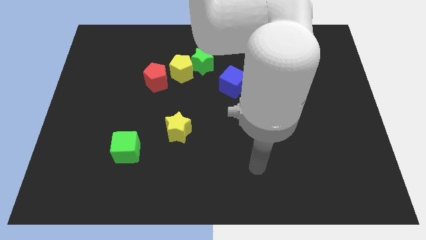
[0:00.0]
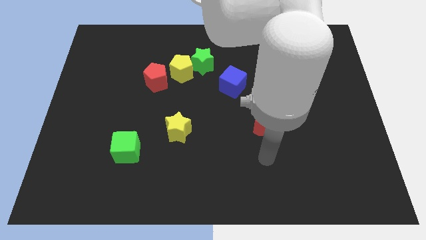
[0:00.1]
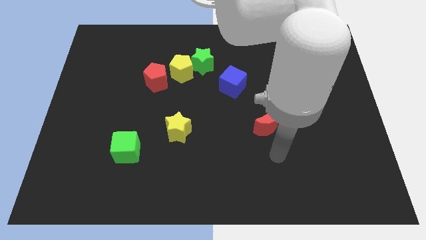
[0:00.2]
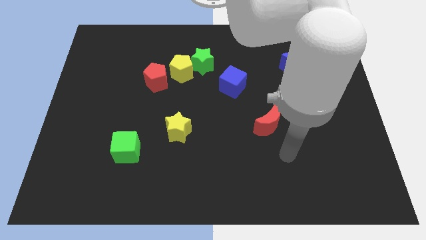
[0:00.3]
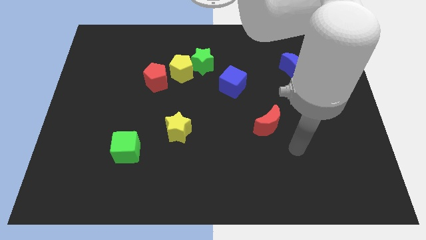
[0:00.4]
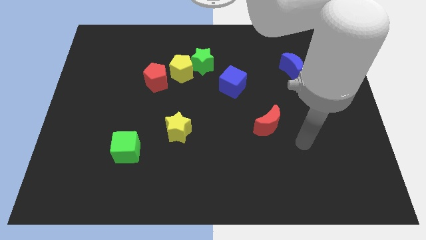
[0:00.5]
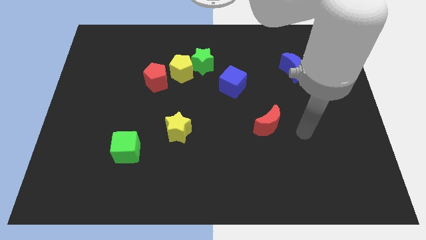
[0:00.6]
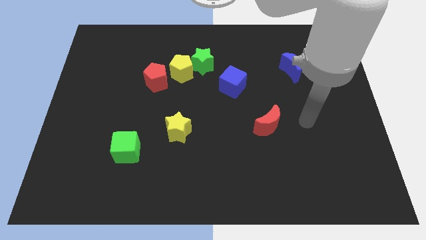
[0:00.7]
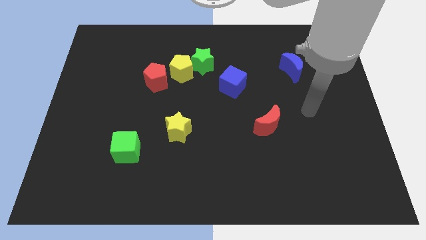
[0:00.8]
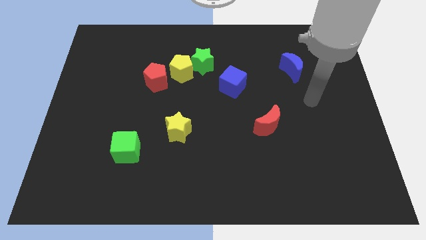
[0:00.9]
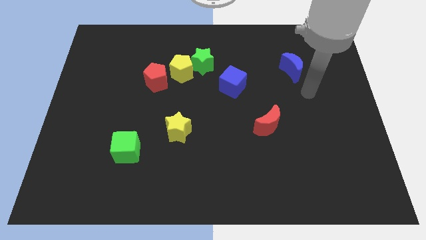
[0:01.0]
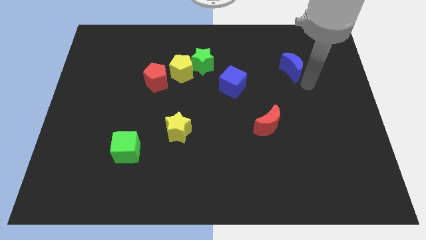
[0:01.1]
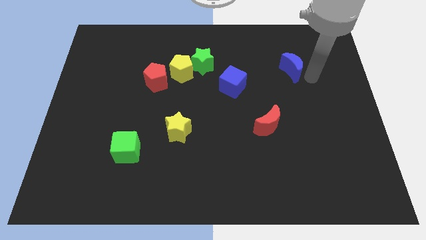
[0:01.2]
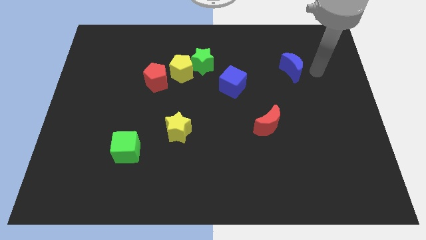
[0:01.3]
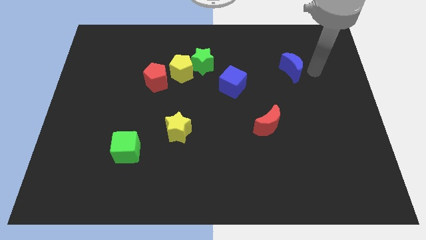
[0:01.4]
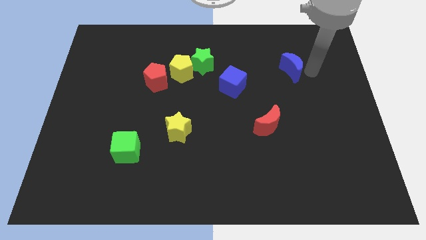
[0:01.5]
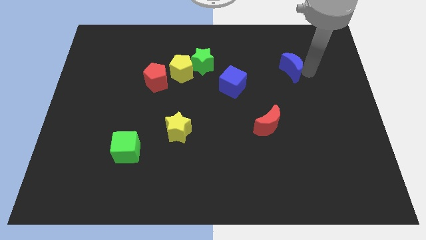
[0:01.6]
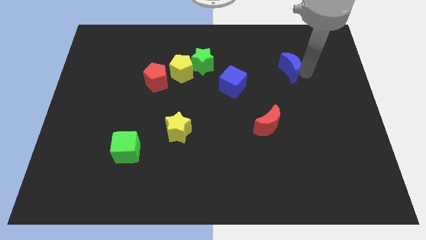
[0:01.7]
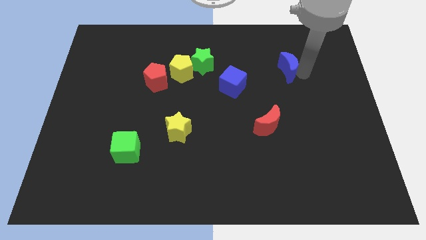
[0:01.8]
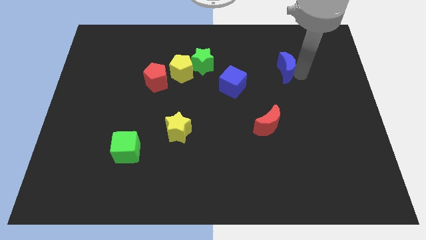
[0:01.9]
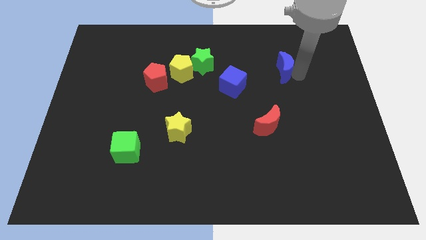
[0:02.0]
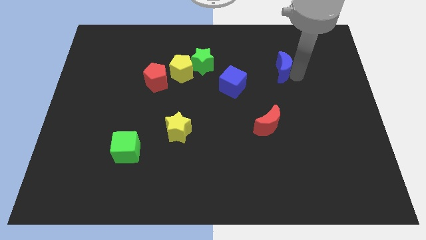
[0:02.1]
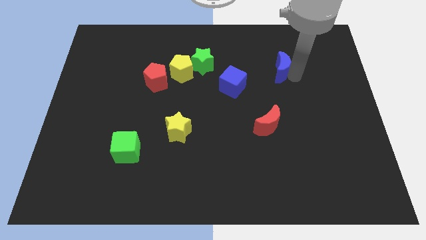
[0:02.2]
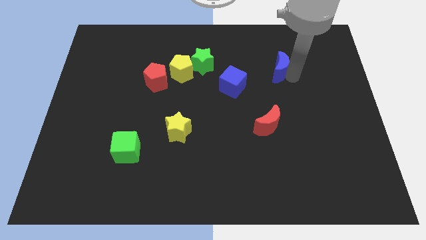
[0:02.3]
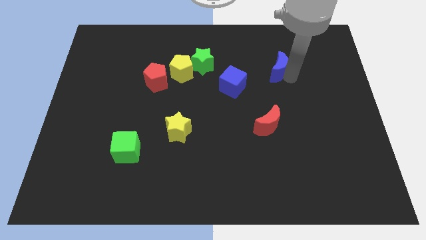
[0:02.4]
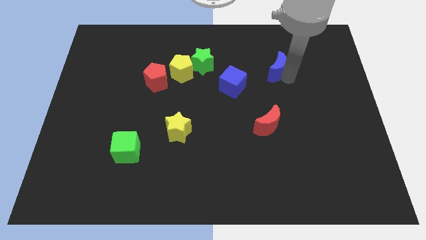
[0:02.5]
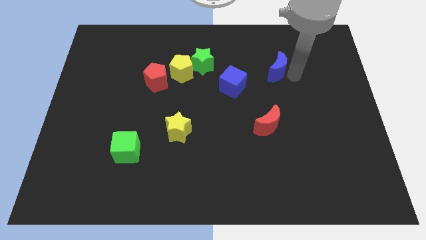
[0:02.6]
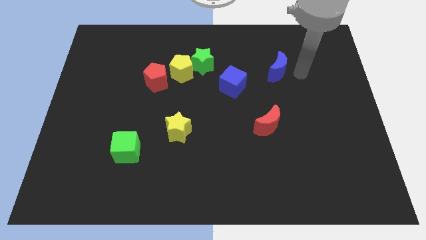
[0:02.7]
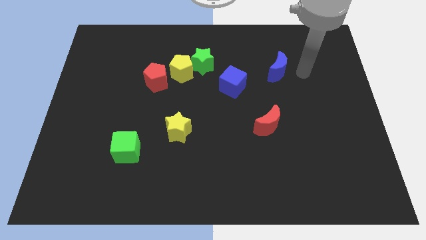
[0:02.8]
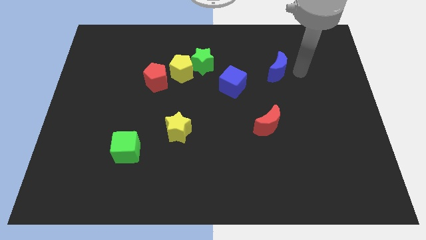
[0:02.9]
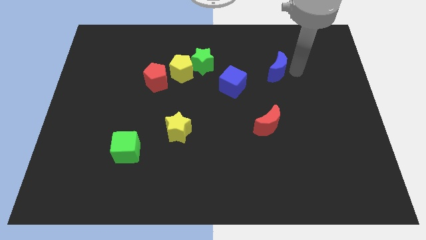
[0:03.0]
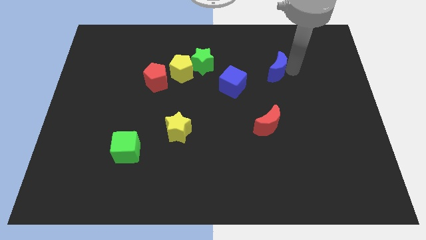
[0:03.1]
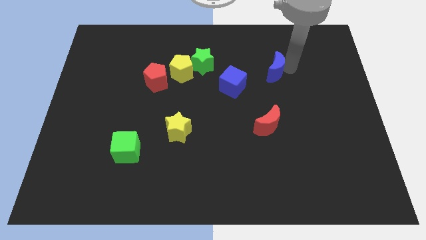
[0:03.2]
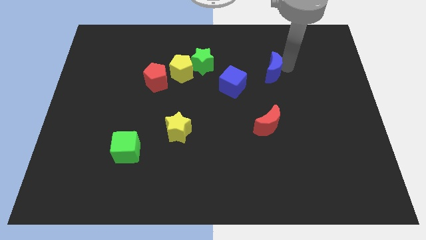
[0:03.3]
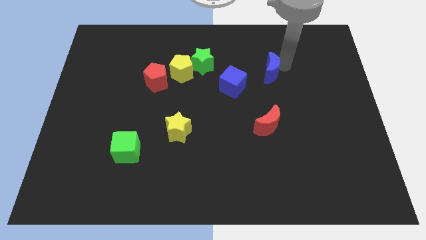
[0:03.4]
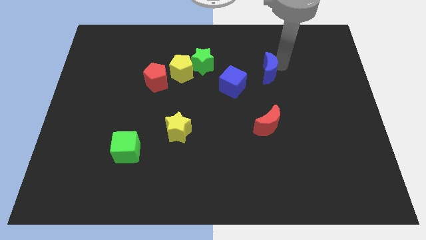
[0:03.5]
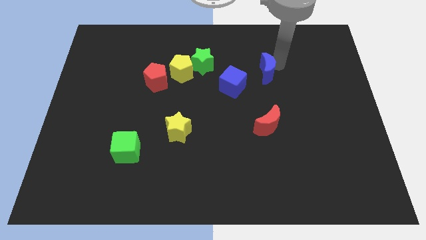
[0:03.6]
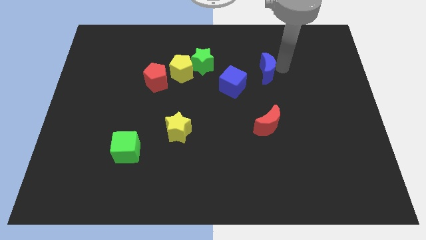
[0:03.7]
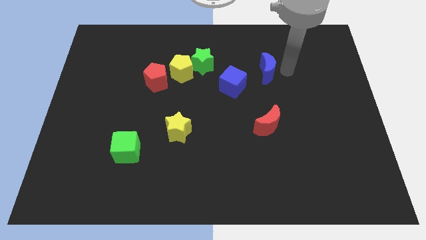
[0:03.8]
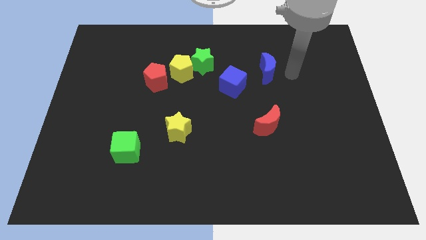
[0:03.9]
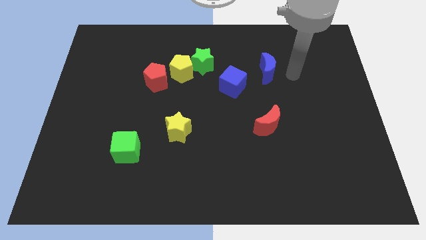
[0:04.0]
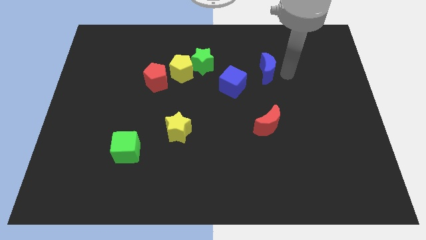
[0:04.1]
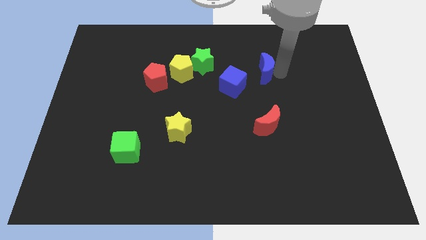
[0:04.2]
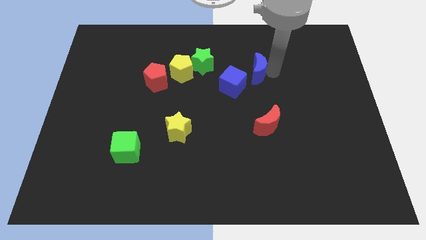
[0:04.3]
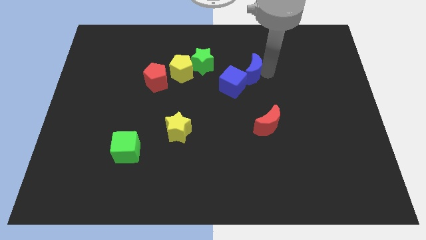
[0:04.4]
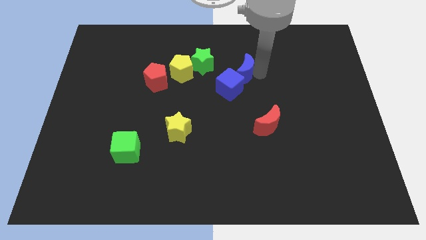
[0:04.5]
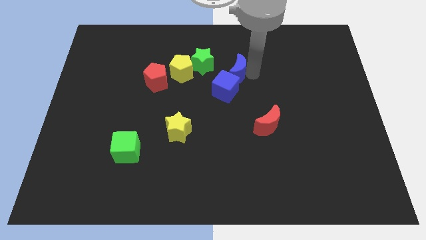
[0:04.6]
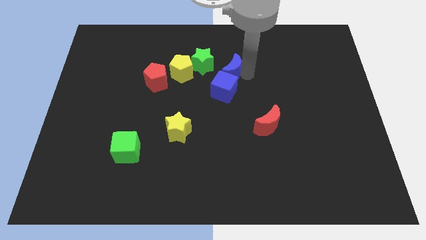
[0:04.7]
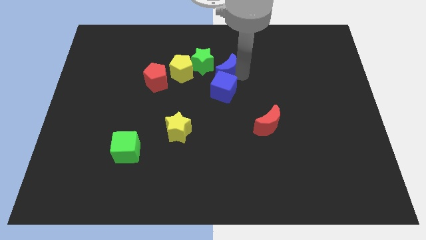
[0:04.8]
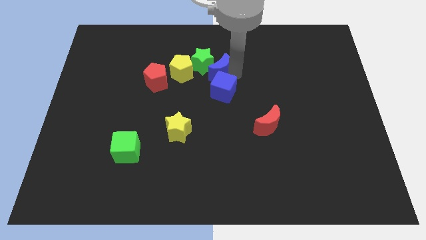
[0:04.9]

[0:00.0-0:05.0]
put the blue moon next to the green star

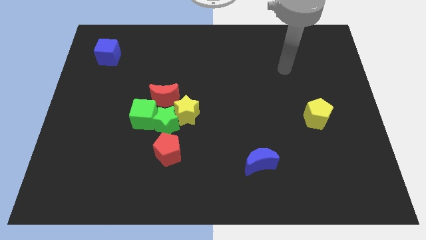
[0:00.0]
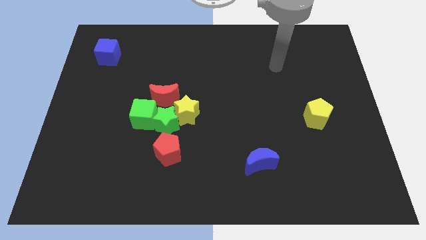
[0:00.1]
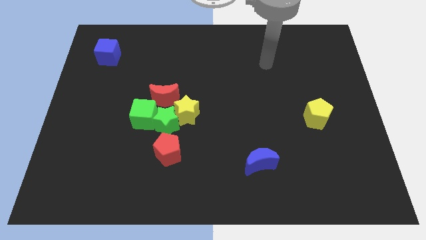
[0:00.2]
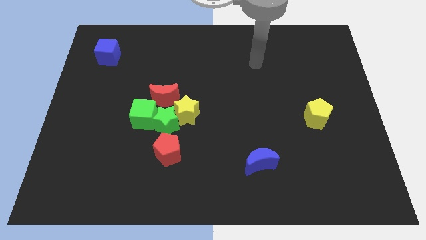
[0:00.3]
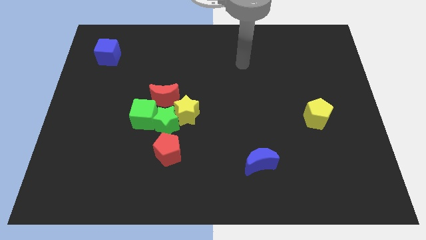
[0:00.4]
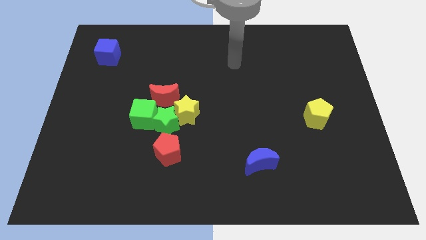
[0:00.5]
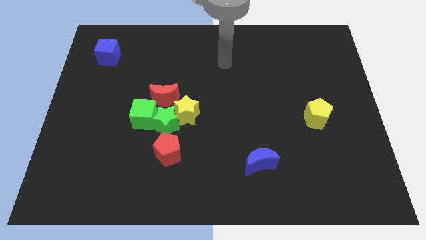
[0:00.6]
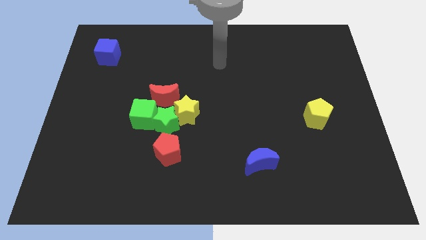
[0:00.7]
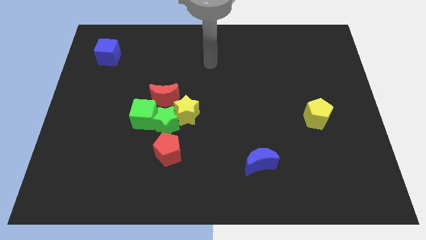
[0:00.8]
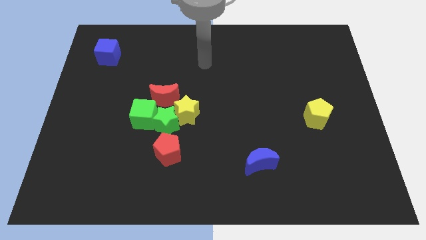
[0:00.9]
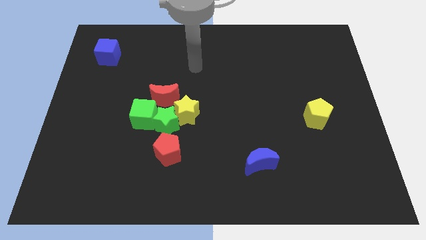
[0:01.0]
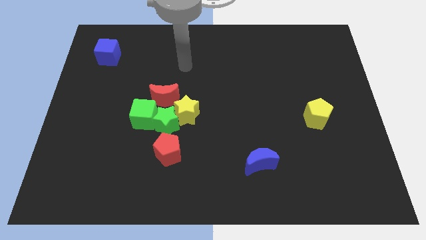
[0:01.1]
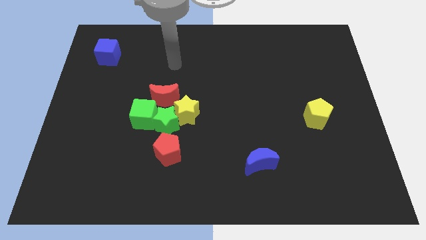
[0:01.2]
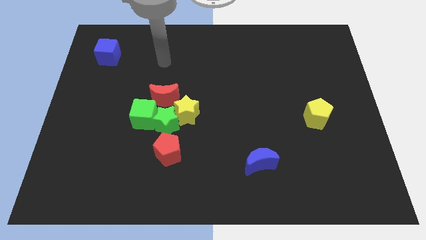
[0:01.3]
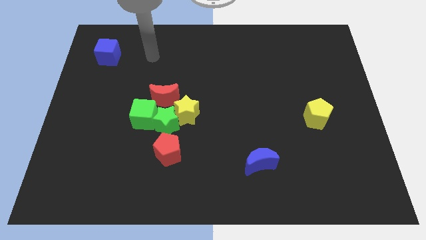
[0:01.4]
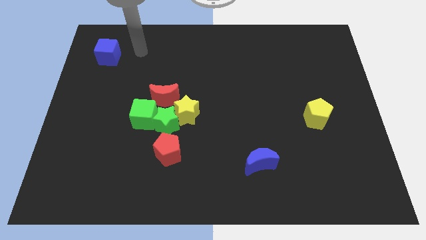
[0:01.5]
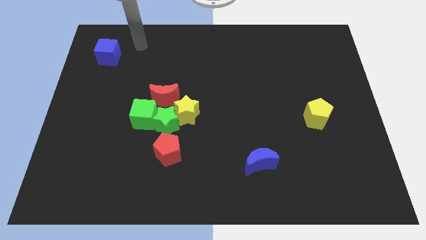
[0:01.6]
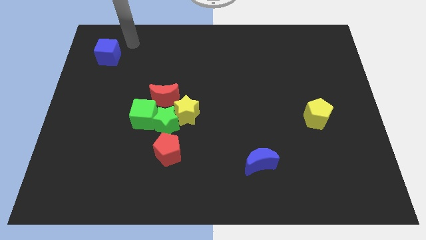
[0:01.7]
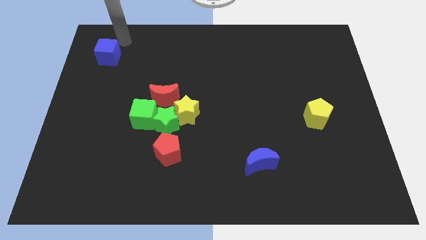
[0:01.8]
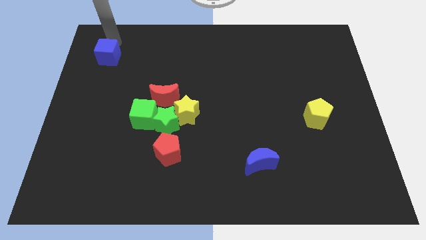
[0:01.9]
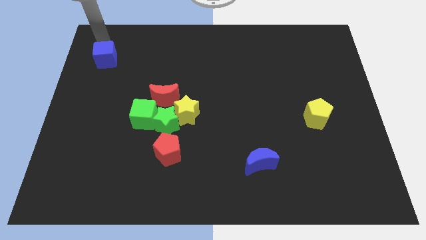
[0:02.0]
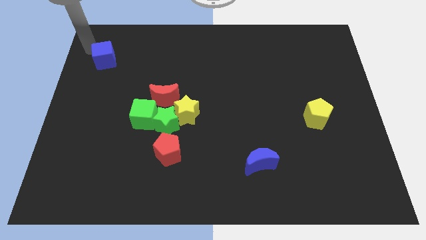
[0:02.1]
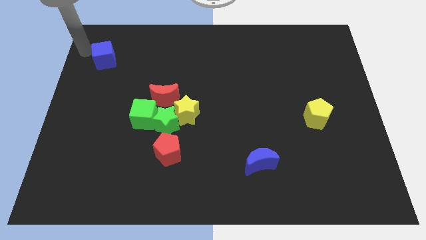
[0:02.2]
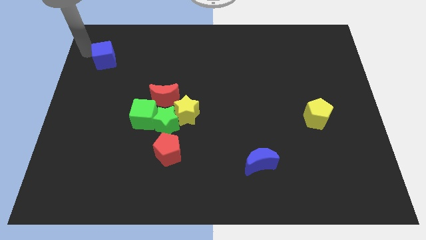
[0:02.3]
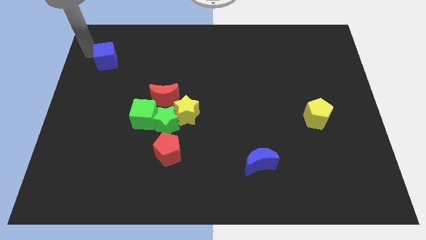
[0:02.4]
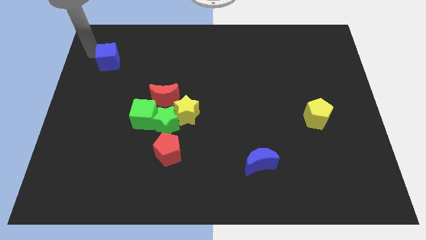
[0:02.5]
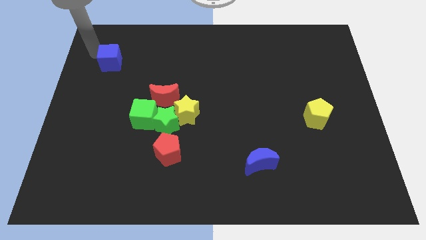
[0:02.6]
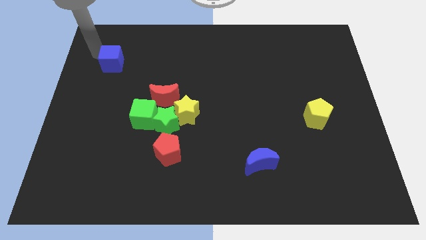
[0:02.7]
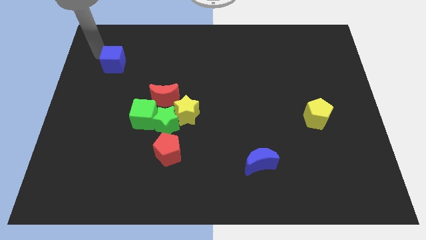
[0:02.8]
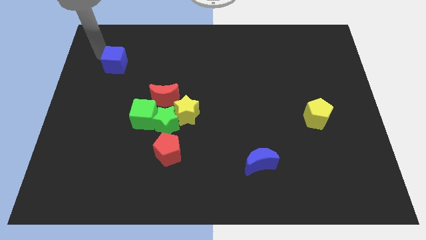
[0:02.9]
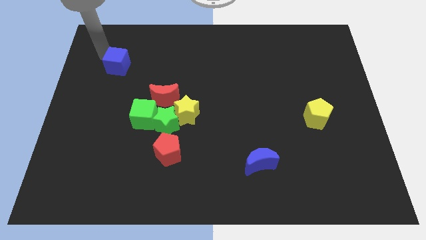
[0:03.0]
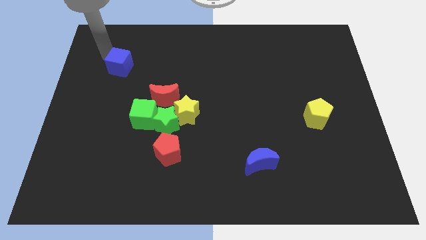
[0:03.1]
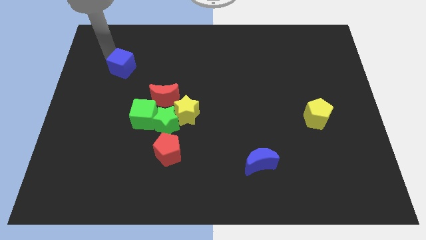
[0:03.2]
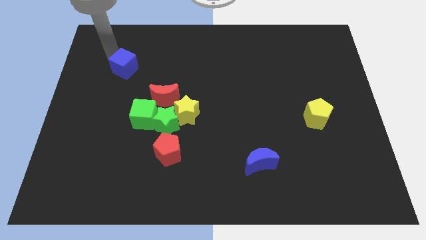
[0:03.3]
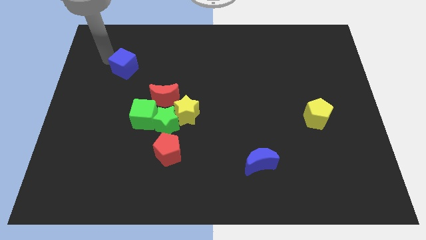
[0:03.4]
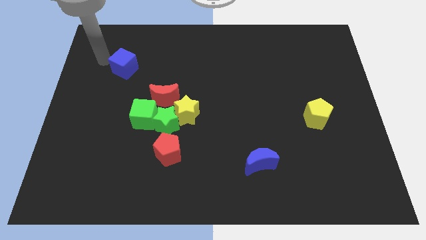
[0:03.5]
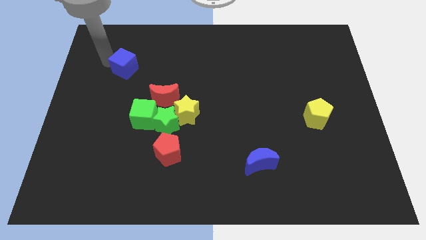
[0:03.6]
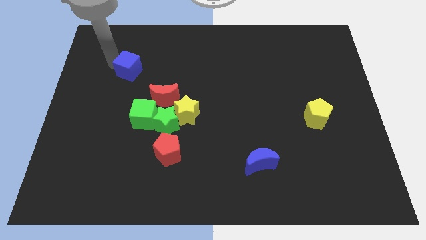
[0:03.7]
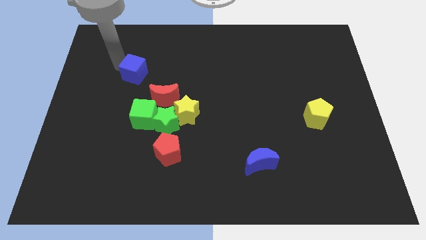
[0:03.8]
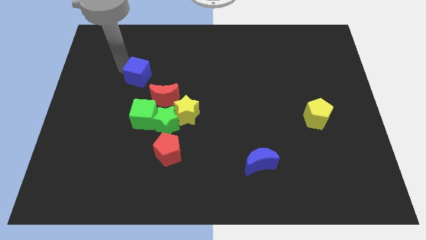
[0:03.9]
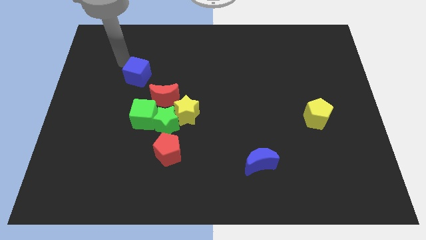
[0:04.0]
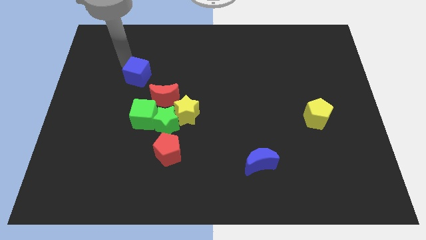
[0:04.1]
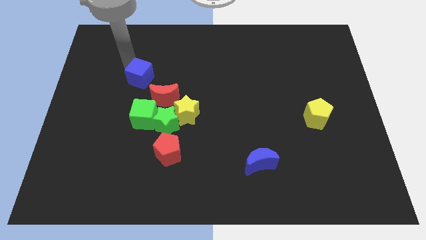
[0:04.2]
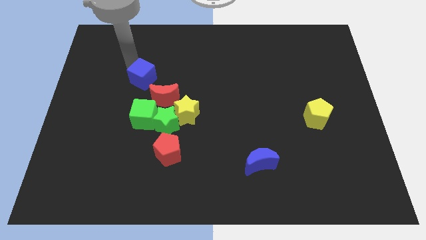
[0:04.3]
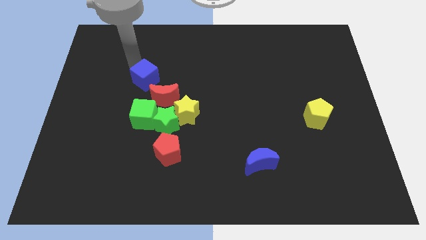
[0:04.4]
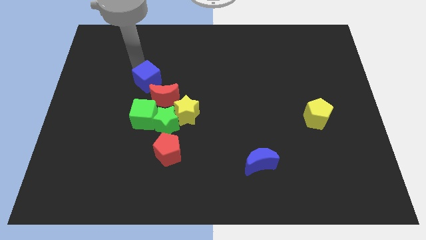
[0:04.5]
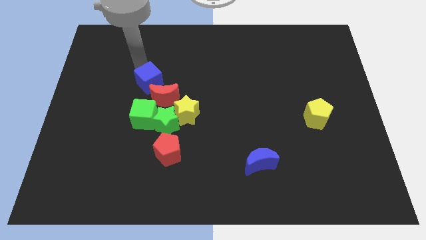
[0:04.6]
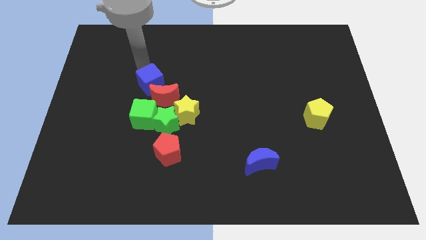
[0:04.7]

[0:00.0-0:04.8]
push the blue cube to the red moon
